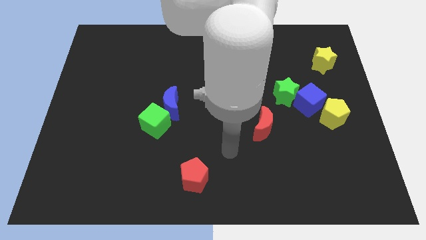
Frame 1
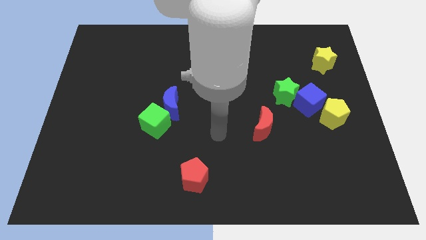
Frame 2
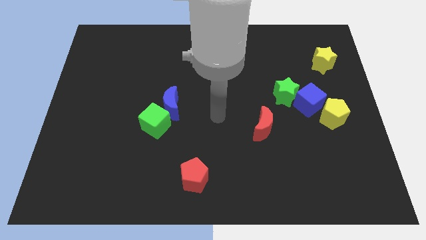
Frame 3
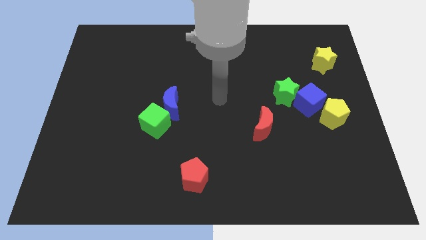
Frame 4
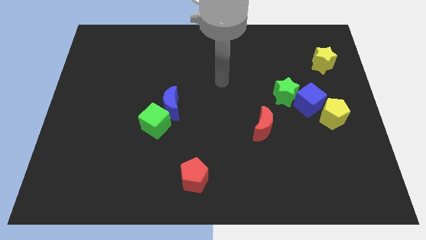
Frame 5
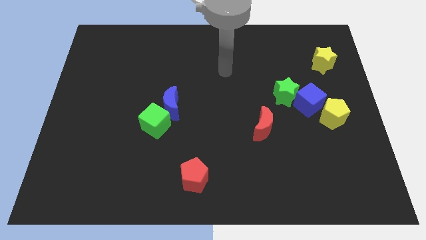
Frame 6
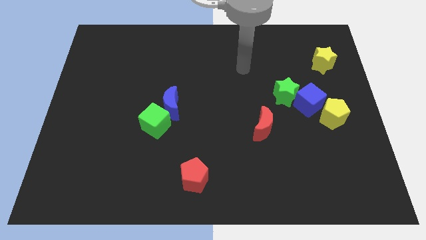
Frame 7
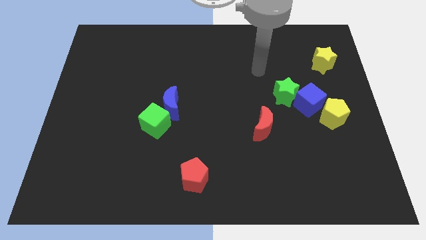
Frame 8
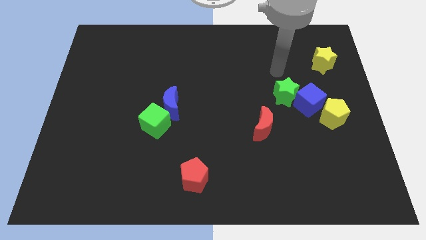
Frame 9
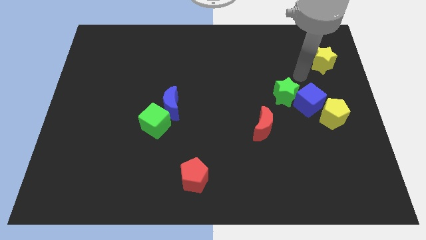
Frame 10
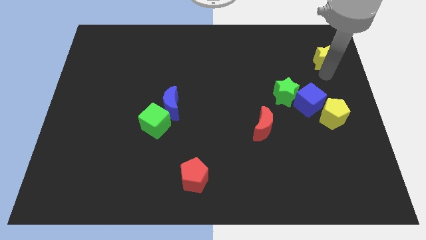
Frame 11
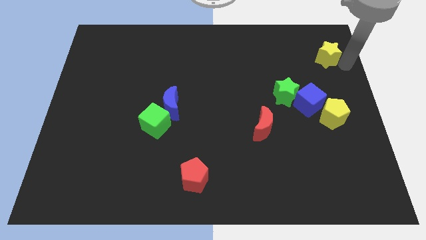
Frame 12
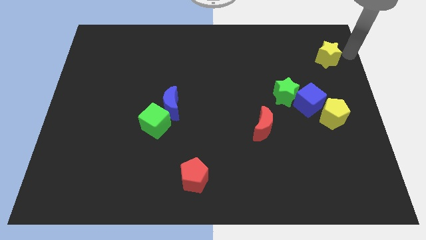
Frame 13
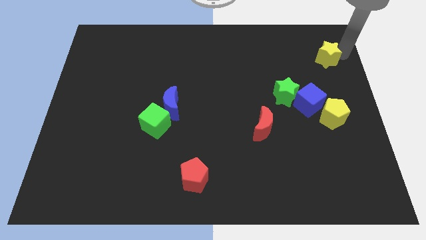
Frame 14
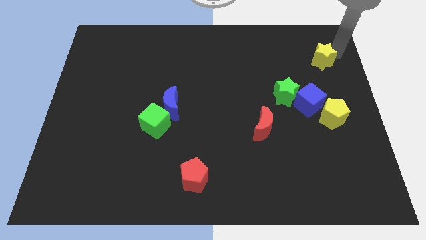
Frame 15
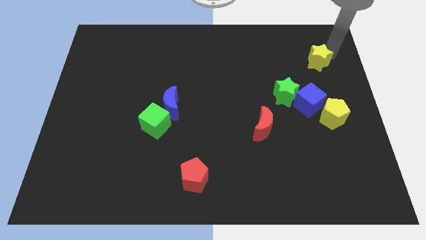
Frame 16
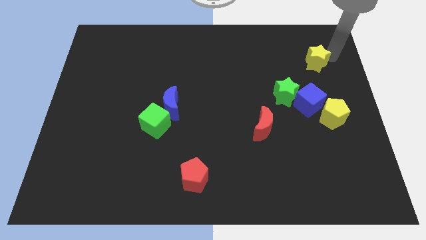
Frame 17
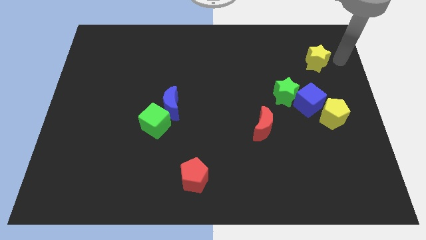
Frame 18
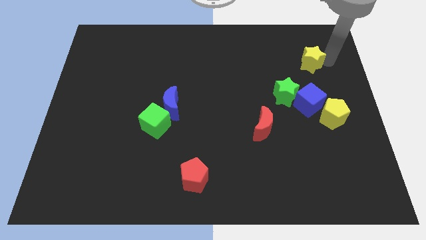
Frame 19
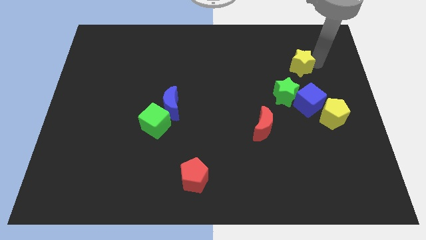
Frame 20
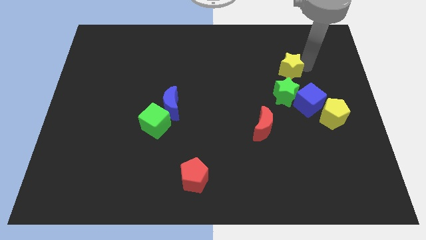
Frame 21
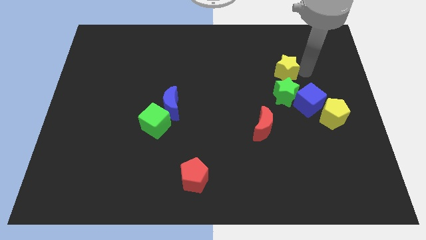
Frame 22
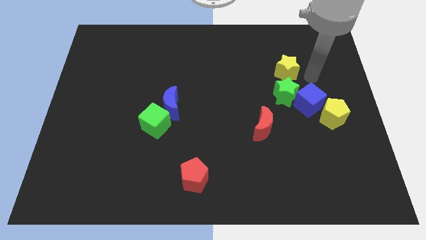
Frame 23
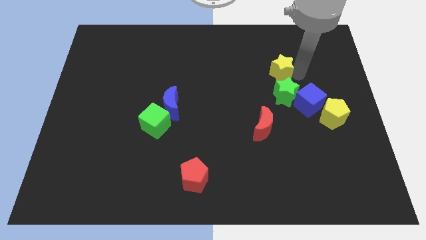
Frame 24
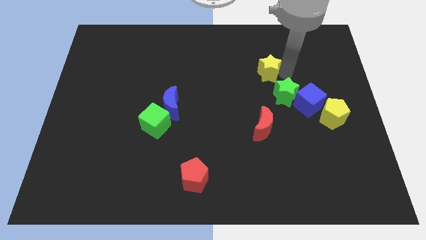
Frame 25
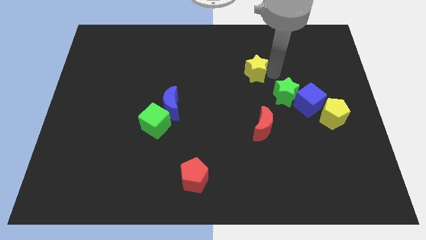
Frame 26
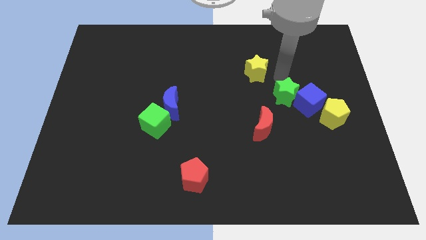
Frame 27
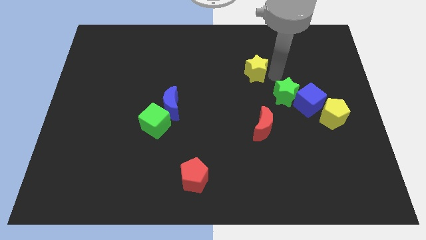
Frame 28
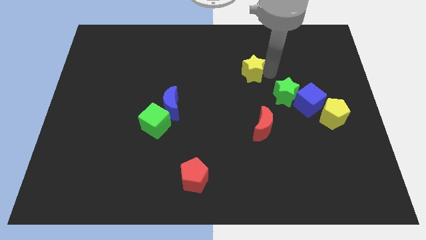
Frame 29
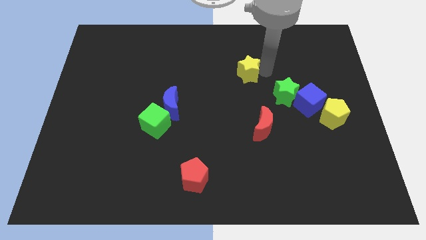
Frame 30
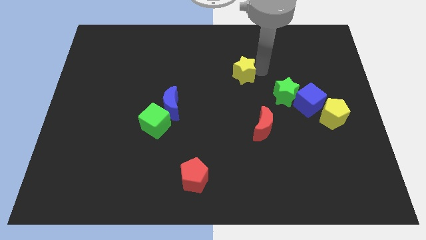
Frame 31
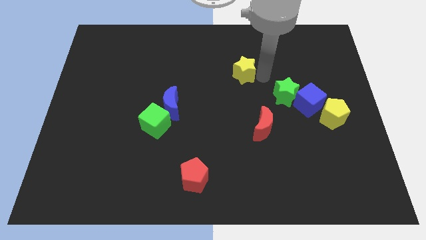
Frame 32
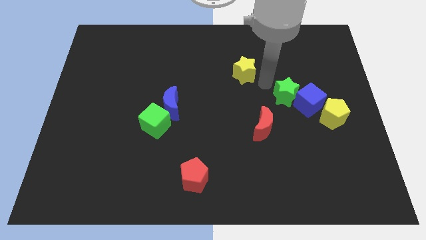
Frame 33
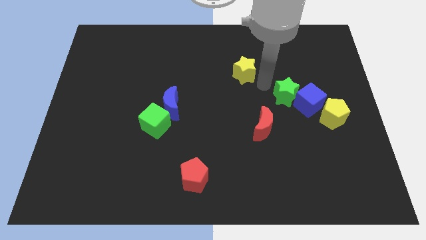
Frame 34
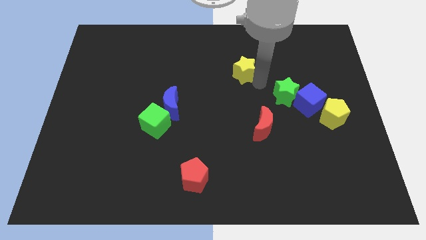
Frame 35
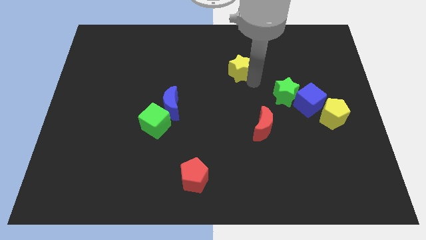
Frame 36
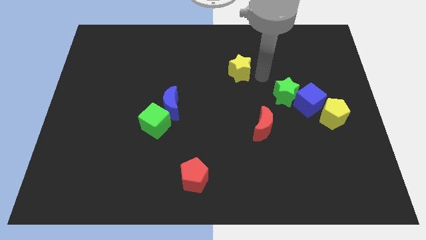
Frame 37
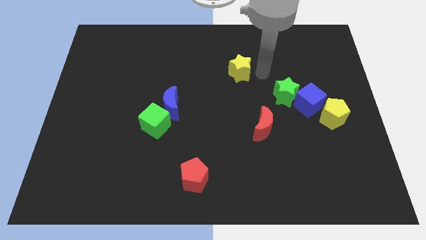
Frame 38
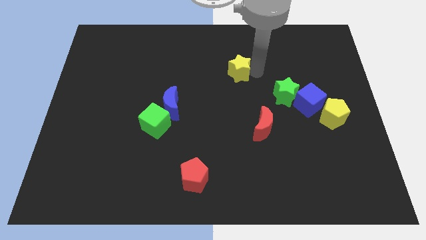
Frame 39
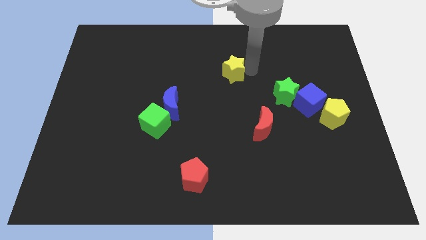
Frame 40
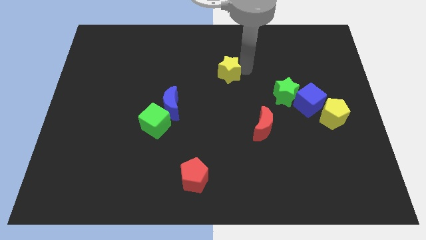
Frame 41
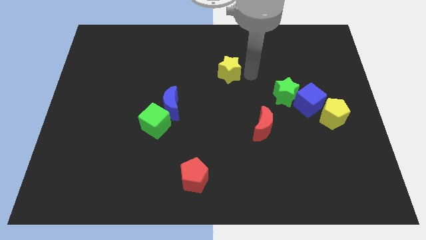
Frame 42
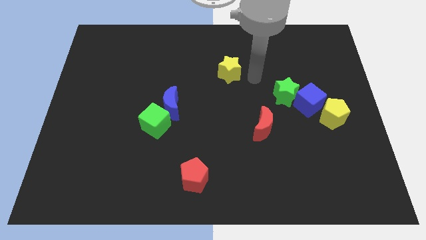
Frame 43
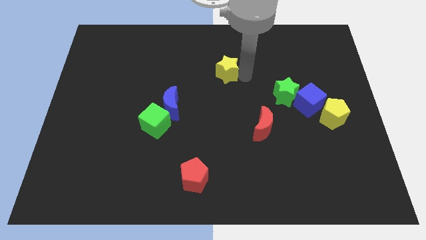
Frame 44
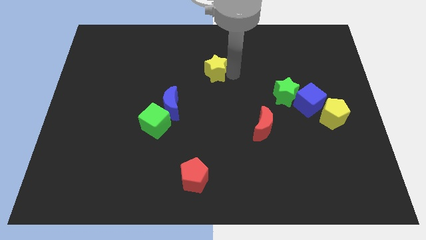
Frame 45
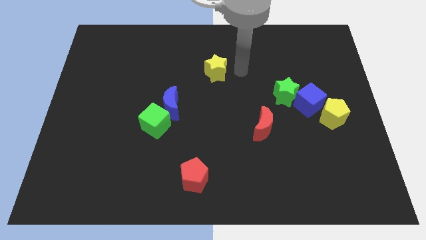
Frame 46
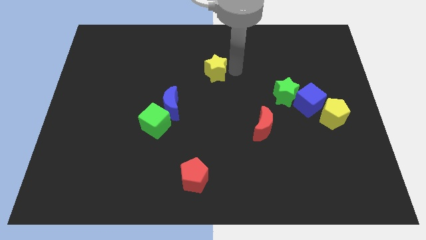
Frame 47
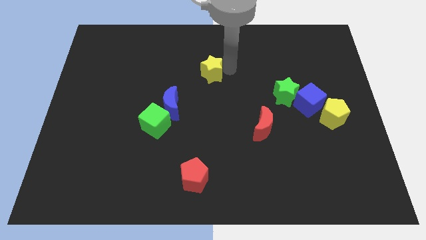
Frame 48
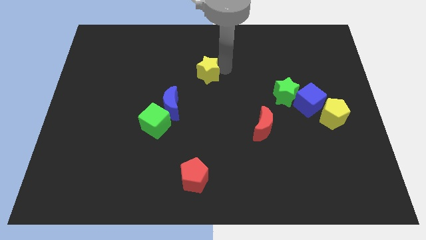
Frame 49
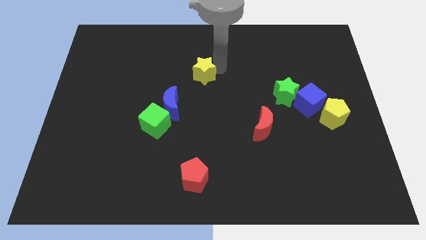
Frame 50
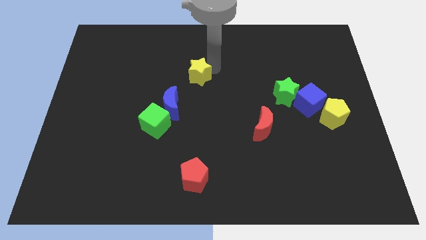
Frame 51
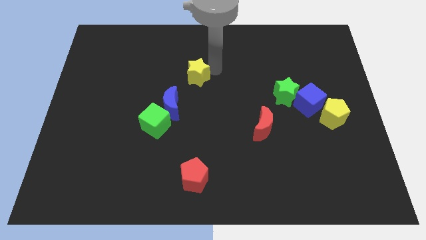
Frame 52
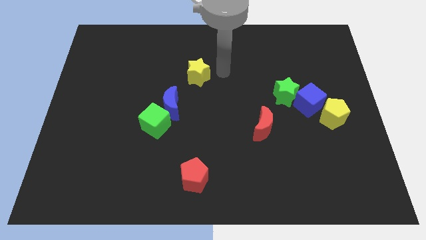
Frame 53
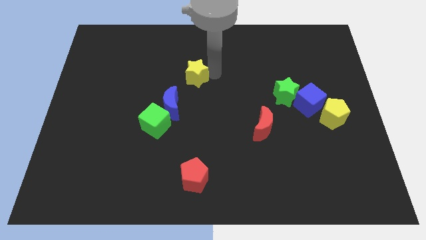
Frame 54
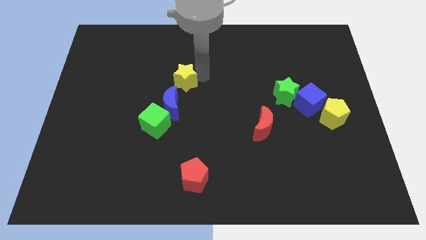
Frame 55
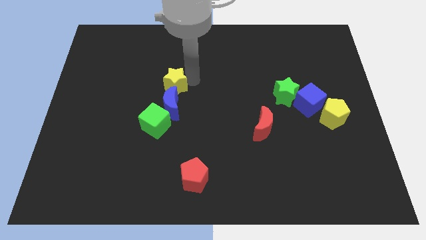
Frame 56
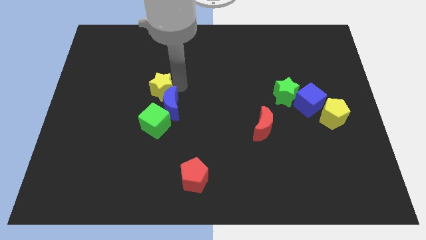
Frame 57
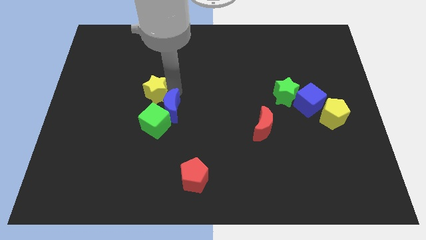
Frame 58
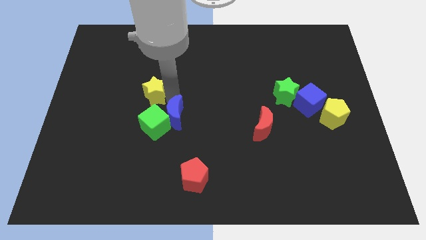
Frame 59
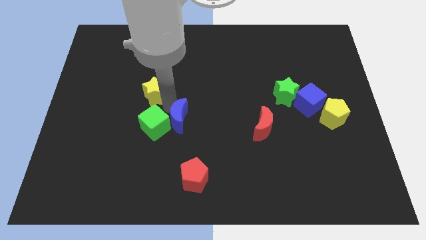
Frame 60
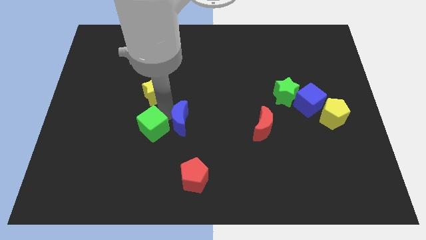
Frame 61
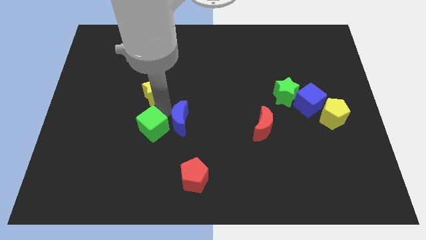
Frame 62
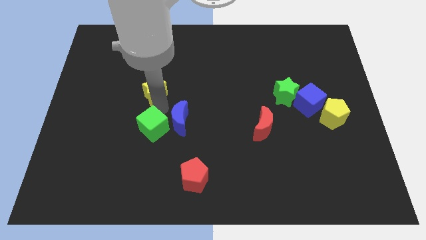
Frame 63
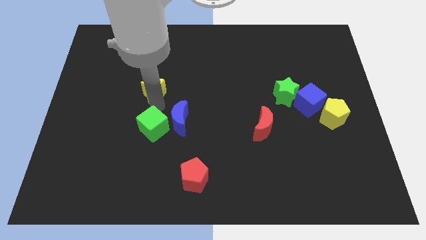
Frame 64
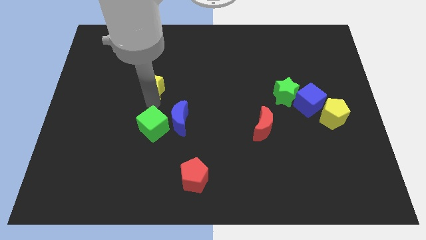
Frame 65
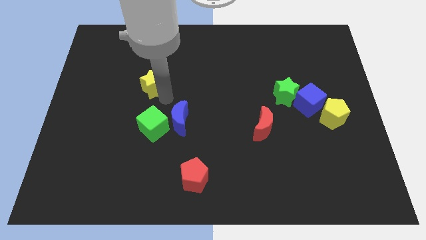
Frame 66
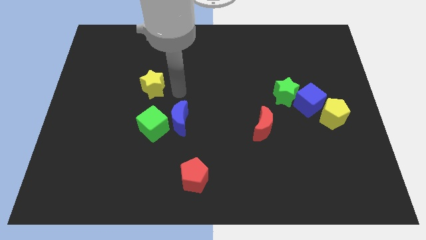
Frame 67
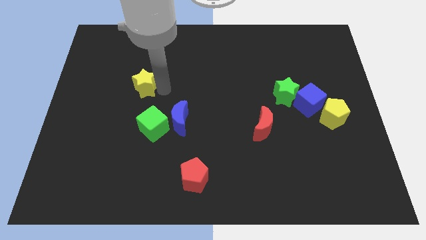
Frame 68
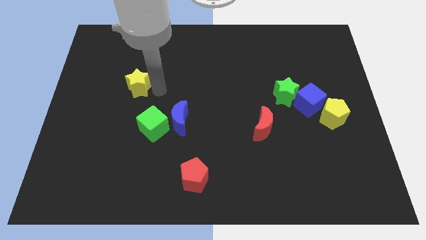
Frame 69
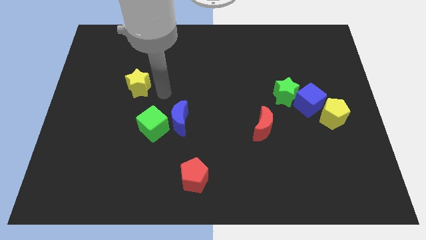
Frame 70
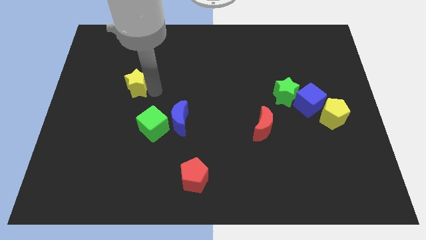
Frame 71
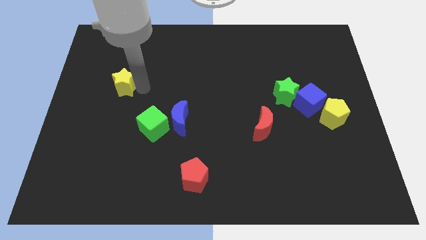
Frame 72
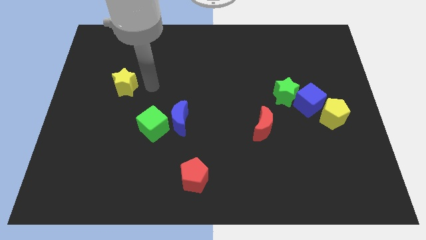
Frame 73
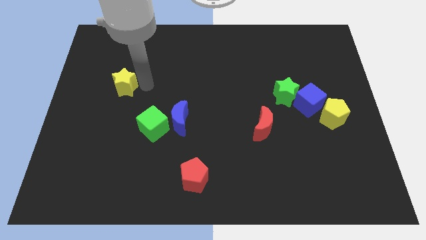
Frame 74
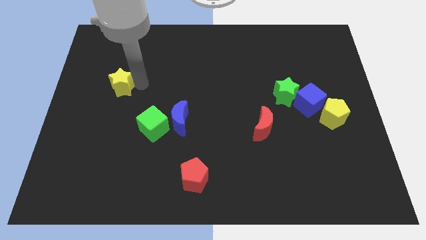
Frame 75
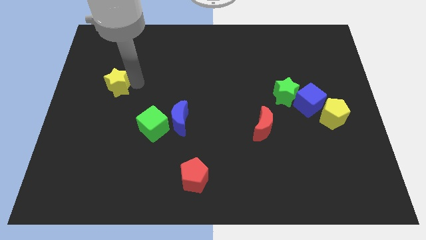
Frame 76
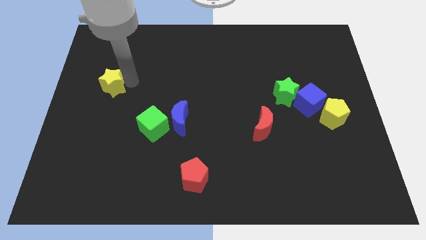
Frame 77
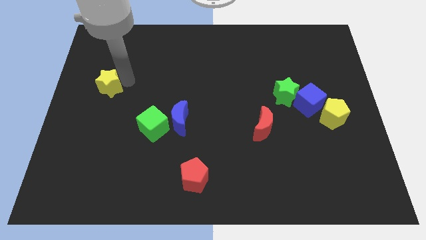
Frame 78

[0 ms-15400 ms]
move the yellow star to the left side of the board
